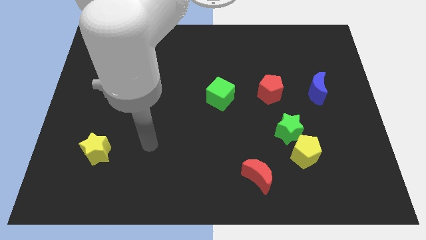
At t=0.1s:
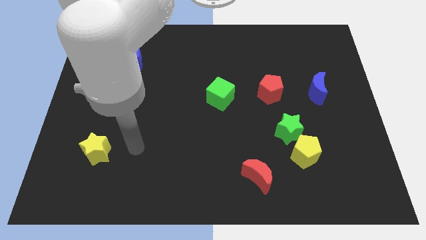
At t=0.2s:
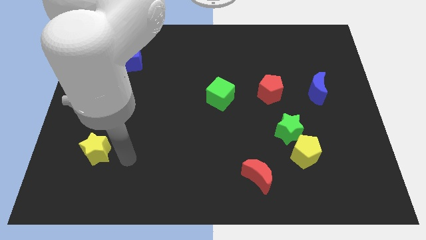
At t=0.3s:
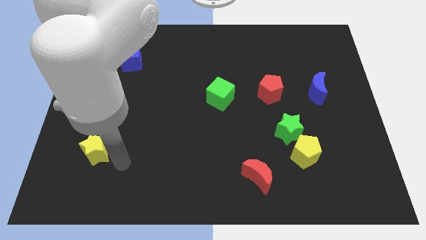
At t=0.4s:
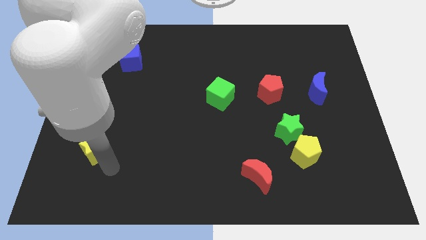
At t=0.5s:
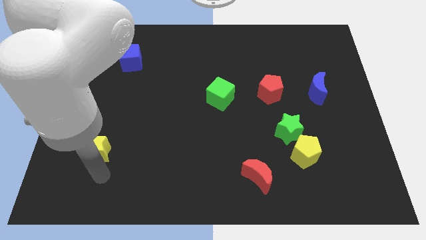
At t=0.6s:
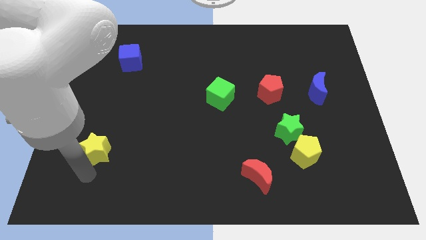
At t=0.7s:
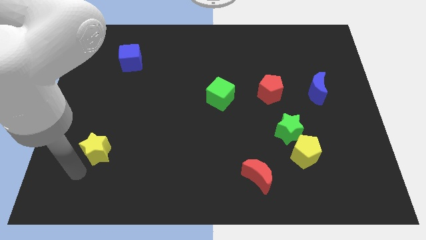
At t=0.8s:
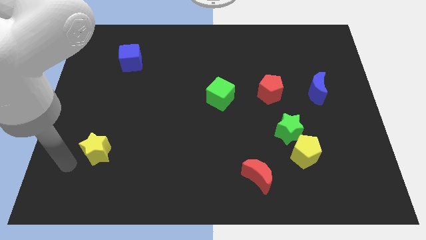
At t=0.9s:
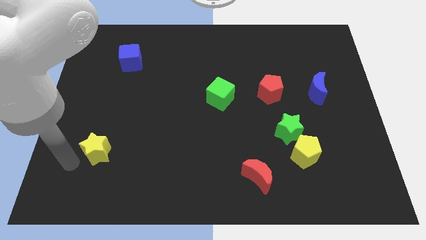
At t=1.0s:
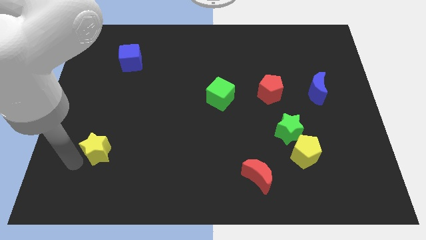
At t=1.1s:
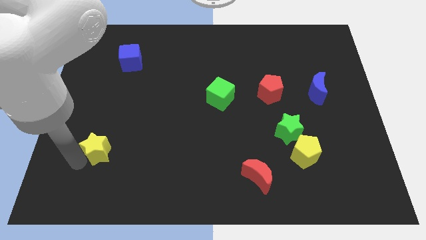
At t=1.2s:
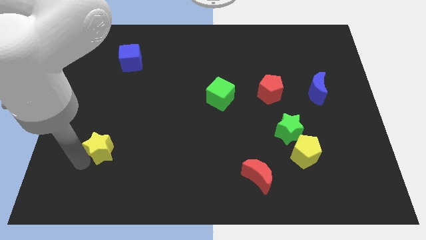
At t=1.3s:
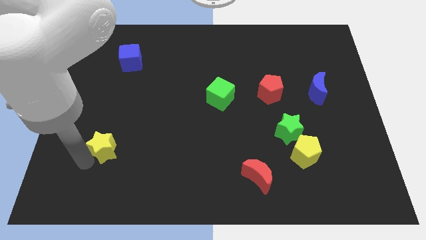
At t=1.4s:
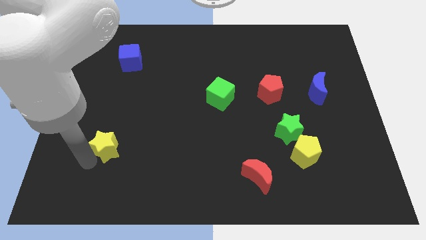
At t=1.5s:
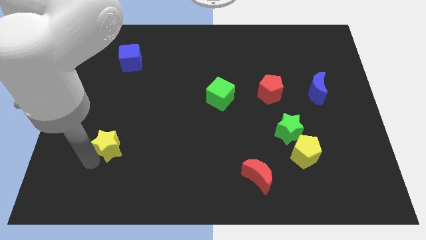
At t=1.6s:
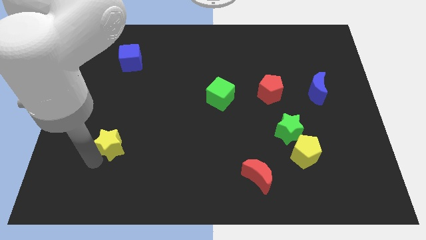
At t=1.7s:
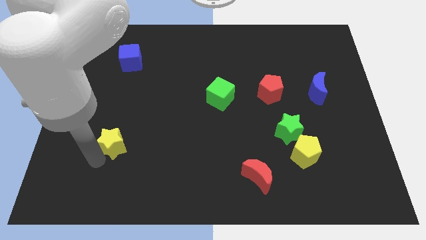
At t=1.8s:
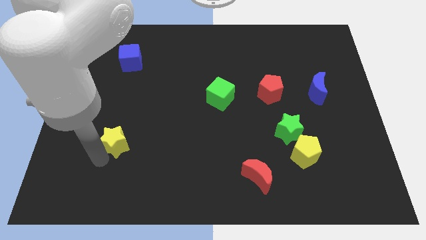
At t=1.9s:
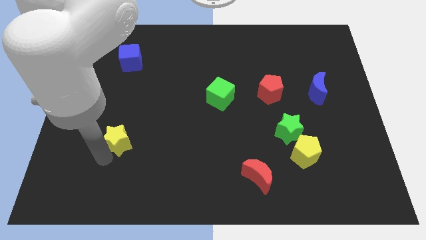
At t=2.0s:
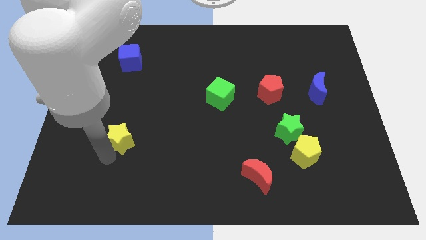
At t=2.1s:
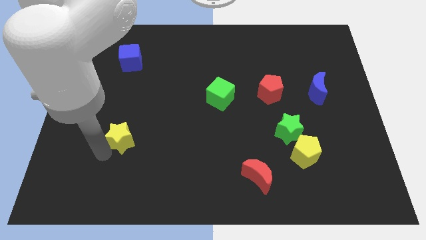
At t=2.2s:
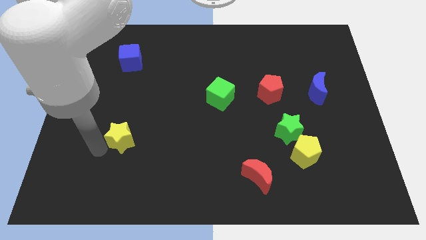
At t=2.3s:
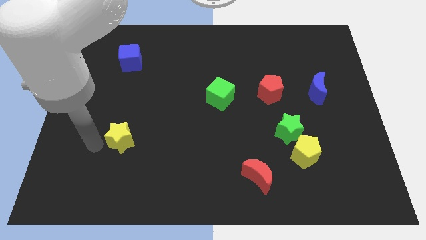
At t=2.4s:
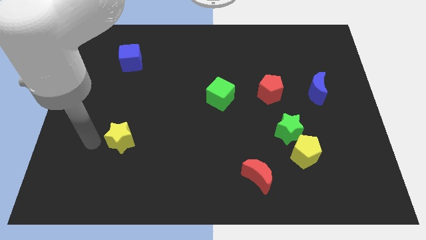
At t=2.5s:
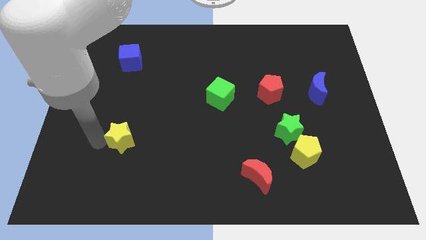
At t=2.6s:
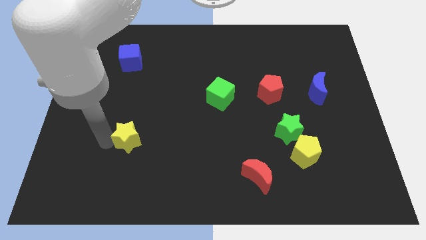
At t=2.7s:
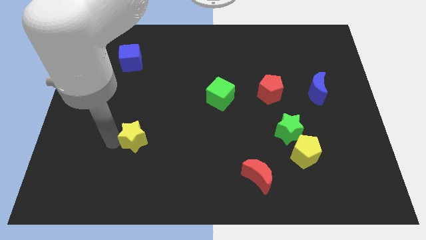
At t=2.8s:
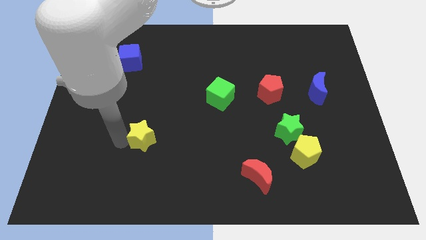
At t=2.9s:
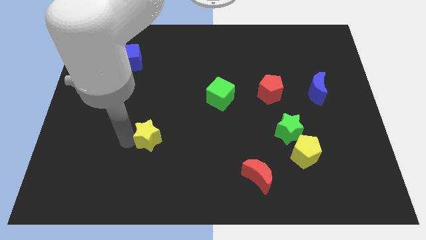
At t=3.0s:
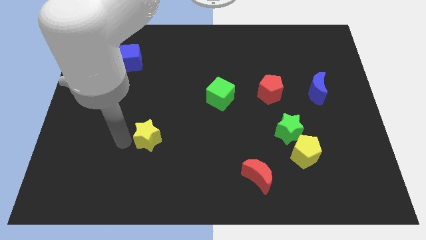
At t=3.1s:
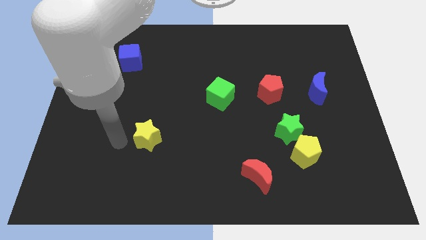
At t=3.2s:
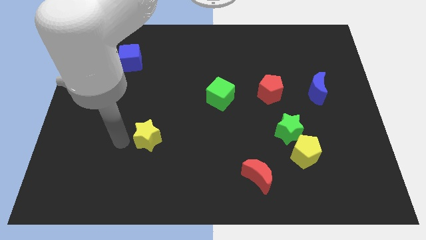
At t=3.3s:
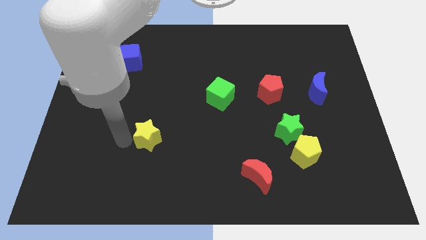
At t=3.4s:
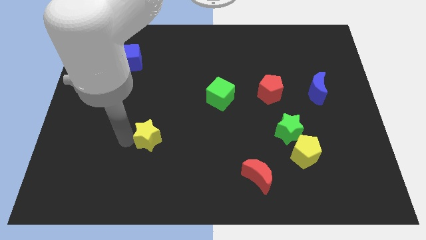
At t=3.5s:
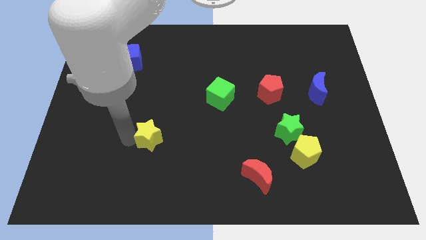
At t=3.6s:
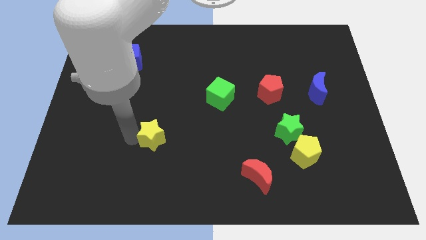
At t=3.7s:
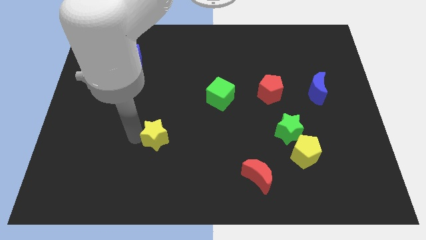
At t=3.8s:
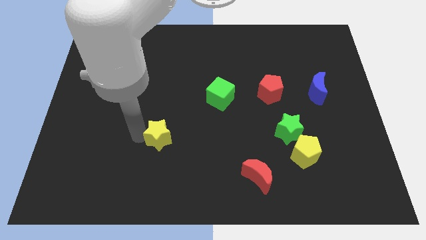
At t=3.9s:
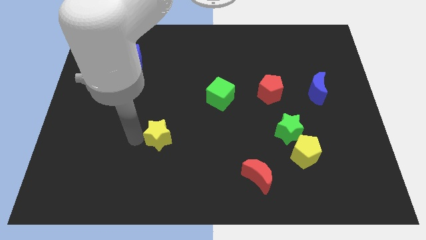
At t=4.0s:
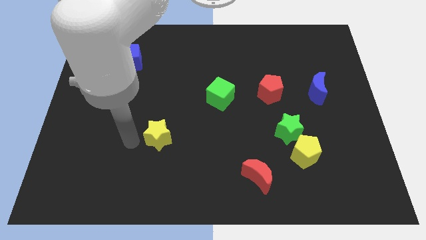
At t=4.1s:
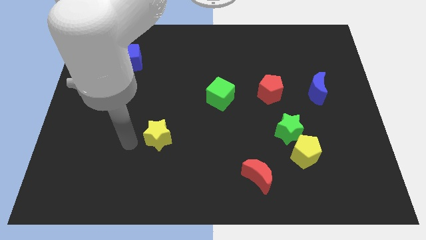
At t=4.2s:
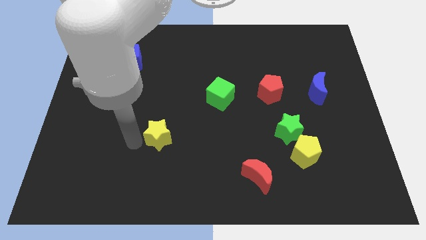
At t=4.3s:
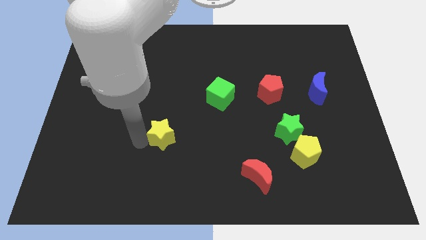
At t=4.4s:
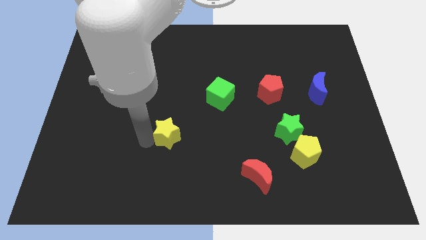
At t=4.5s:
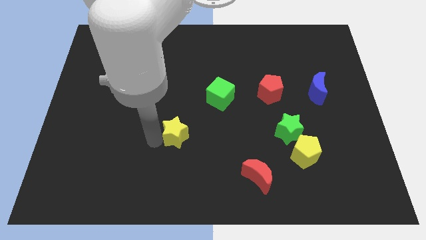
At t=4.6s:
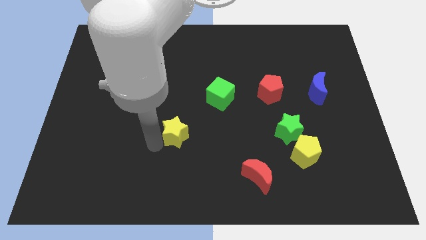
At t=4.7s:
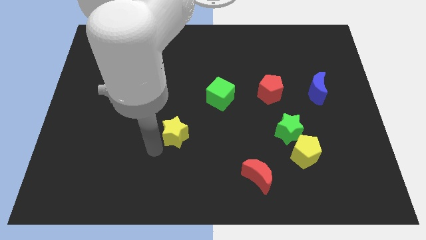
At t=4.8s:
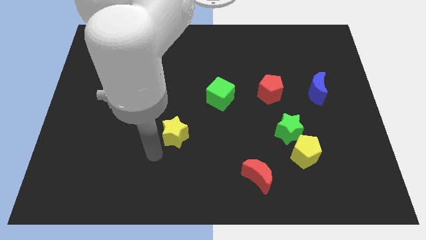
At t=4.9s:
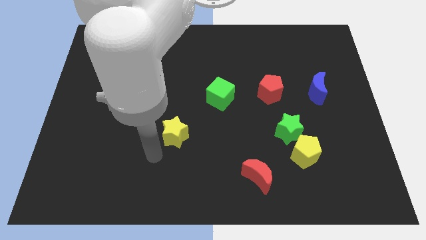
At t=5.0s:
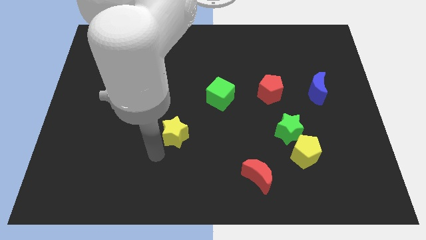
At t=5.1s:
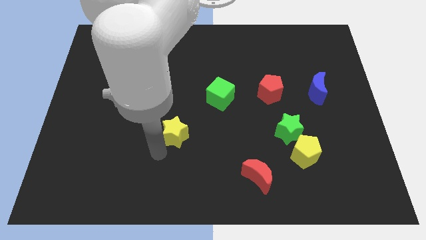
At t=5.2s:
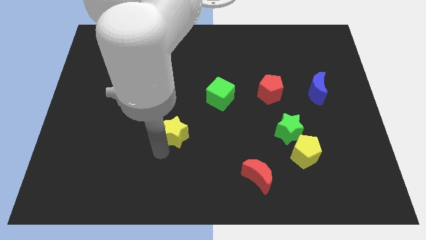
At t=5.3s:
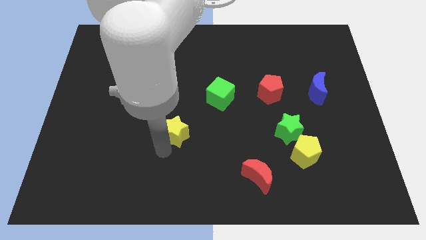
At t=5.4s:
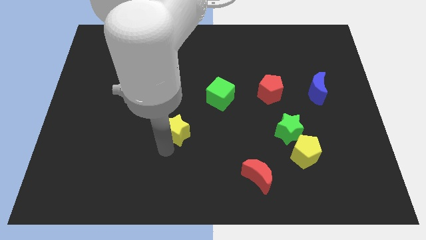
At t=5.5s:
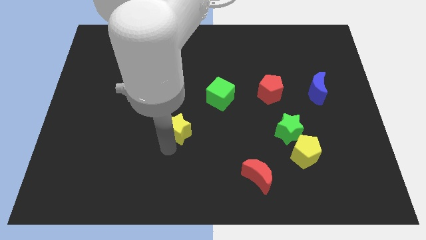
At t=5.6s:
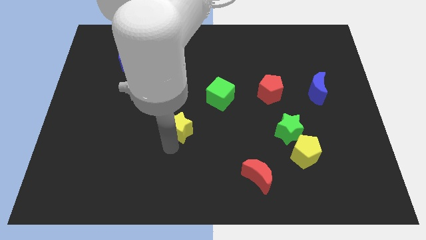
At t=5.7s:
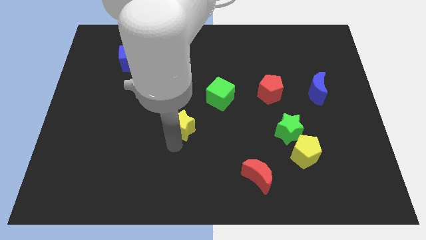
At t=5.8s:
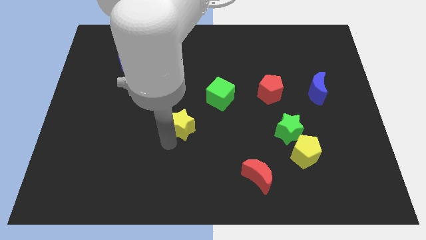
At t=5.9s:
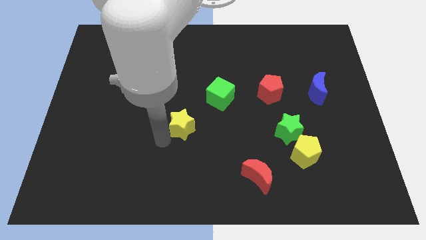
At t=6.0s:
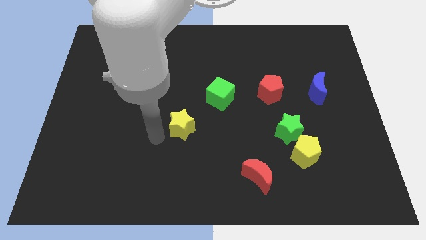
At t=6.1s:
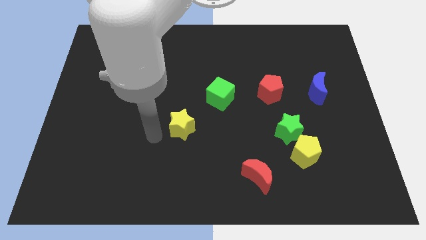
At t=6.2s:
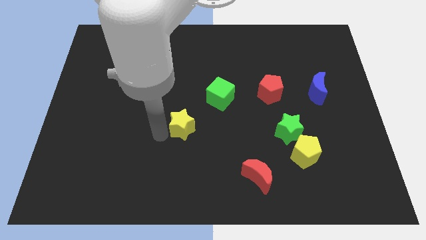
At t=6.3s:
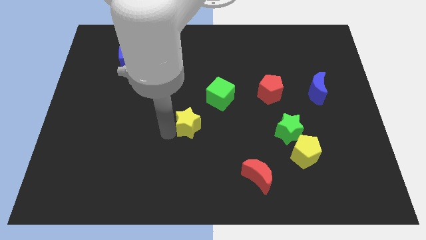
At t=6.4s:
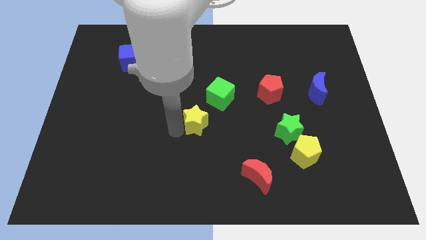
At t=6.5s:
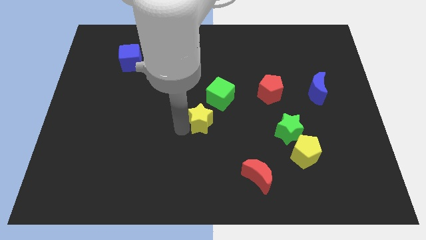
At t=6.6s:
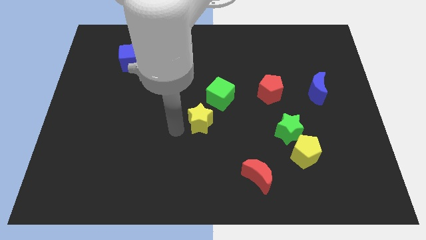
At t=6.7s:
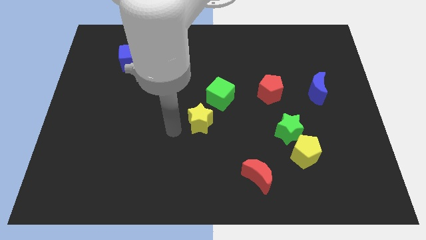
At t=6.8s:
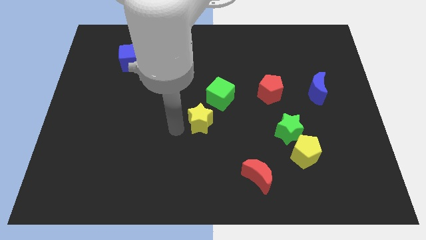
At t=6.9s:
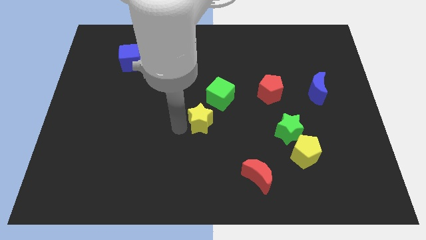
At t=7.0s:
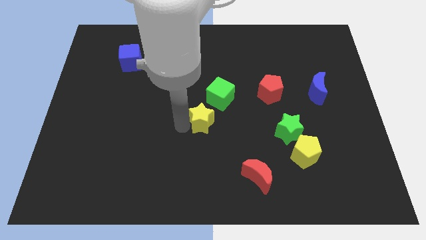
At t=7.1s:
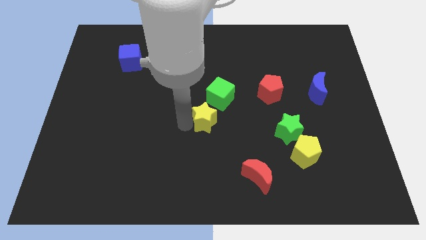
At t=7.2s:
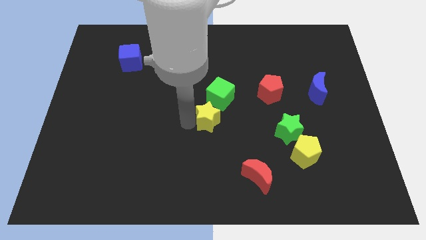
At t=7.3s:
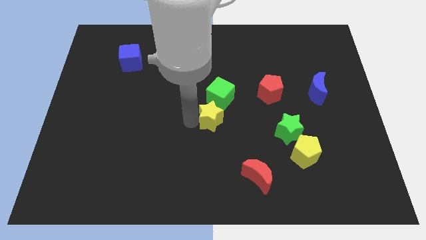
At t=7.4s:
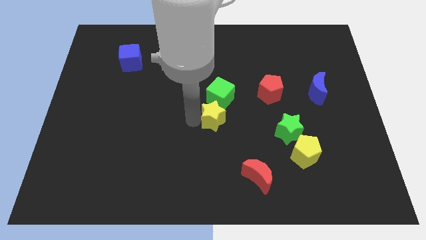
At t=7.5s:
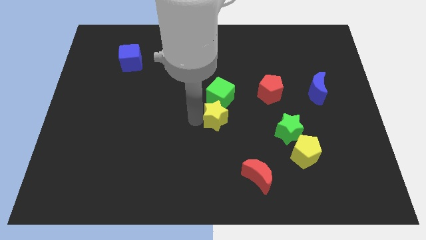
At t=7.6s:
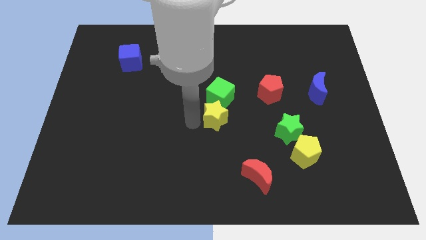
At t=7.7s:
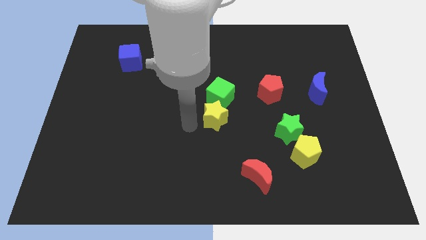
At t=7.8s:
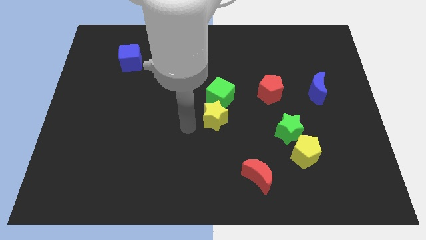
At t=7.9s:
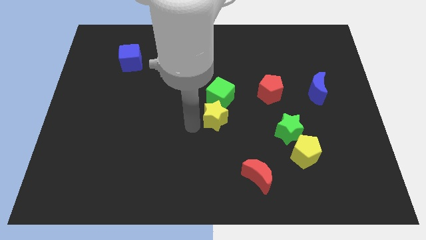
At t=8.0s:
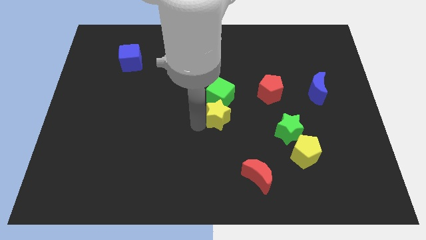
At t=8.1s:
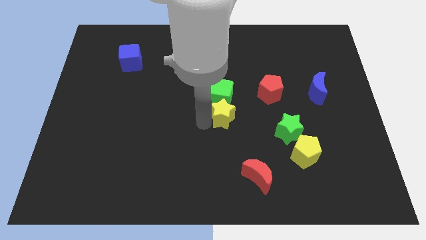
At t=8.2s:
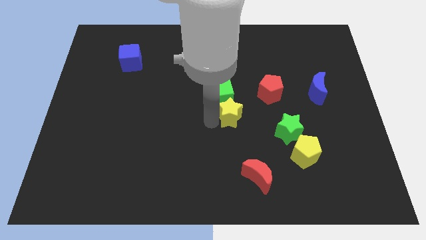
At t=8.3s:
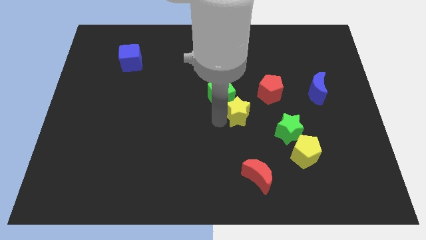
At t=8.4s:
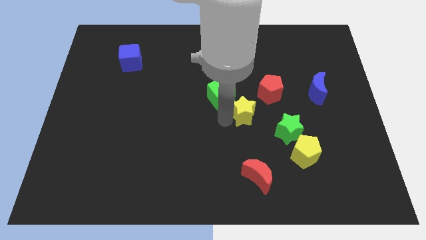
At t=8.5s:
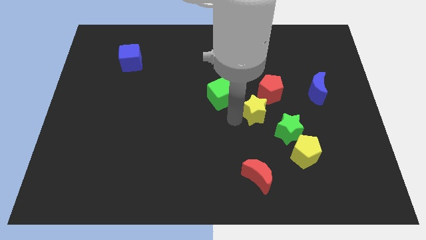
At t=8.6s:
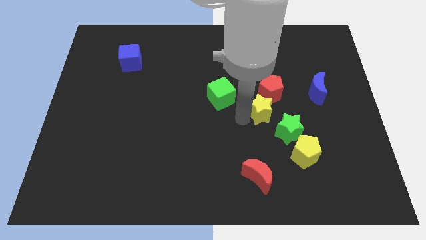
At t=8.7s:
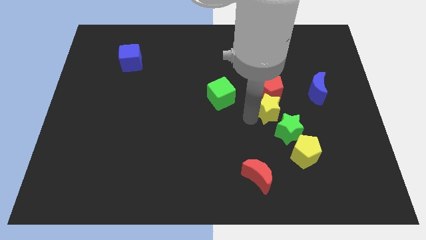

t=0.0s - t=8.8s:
slide the yellow star close to the red pentagon
